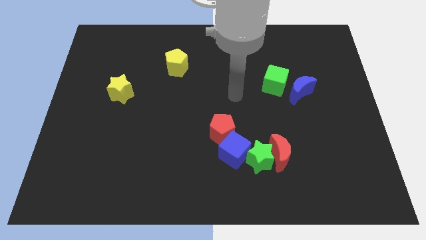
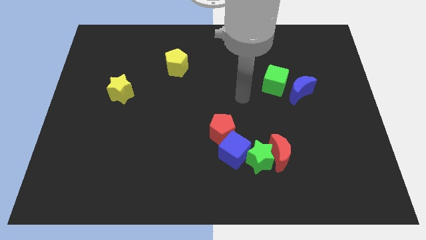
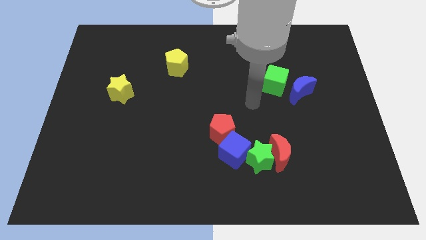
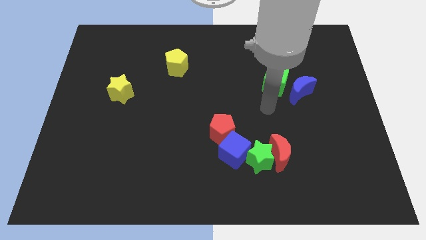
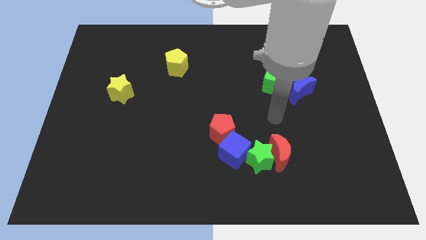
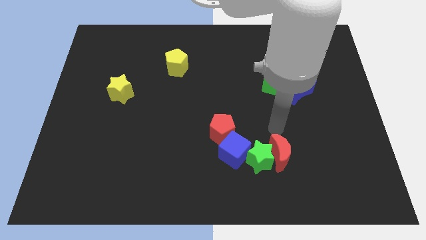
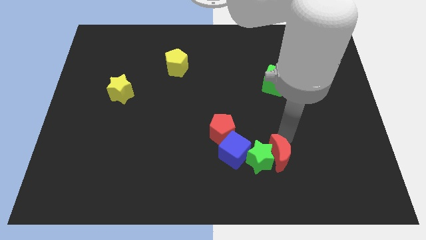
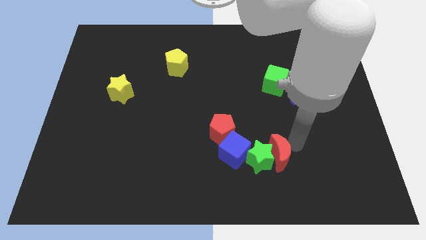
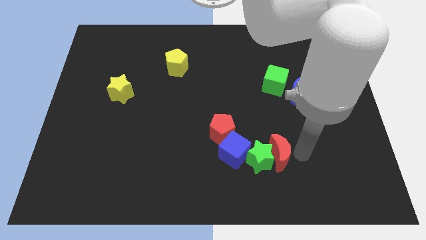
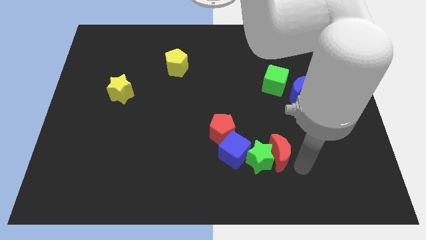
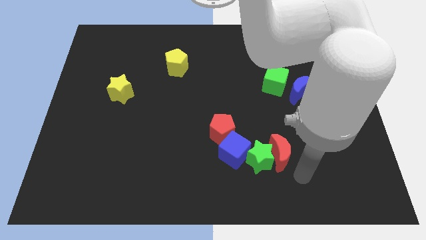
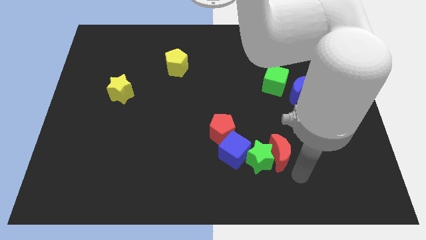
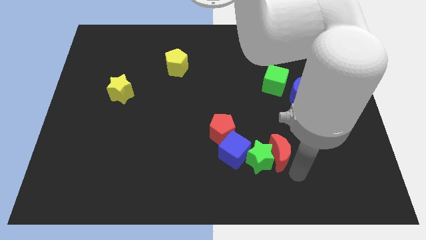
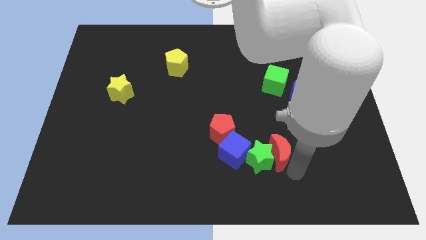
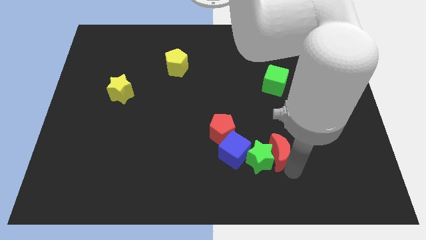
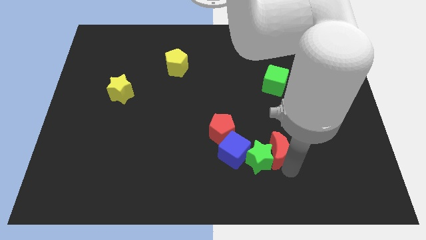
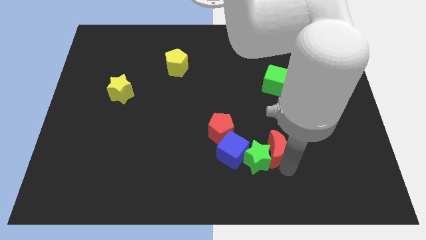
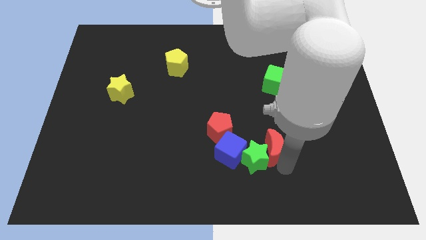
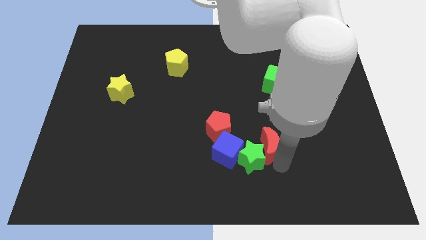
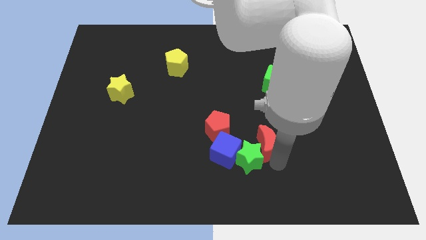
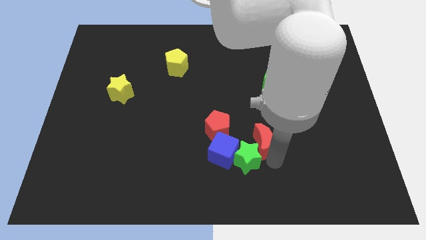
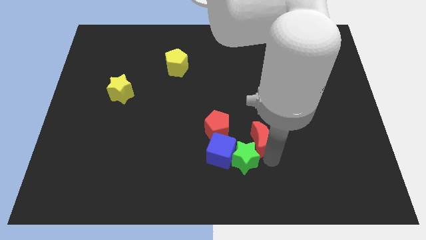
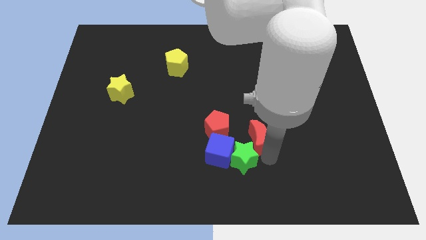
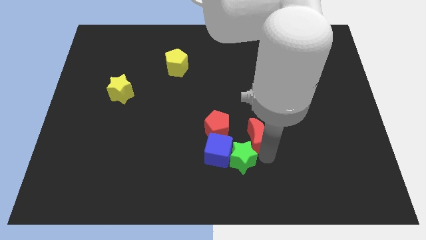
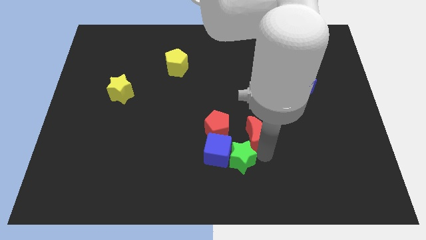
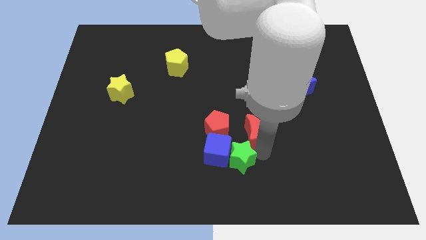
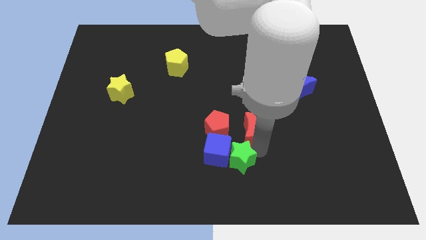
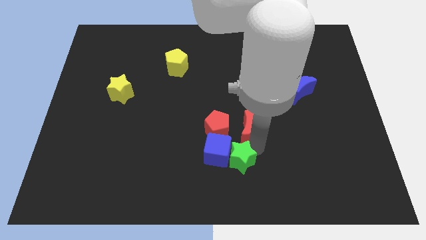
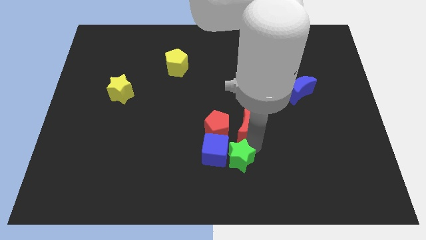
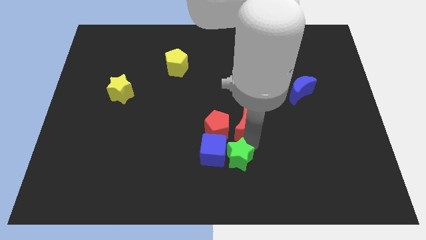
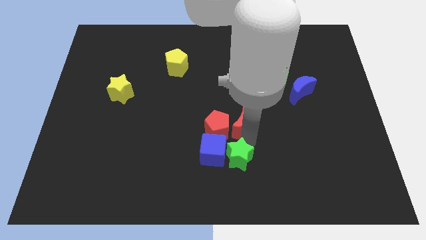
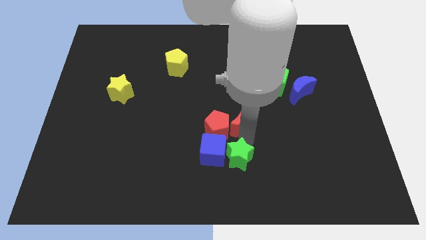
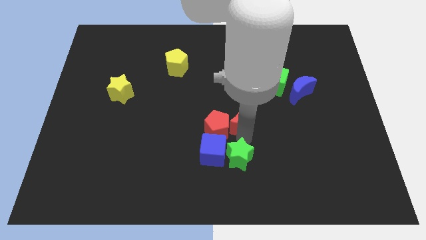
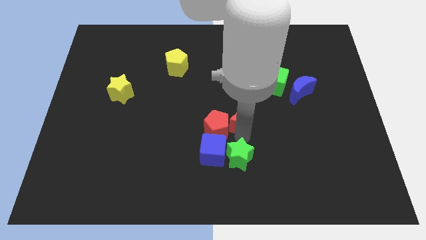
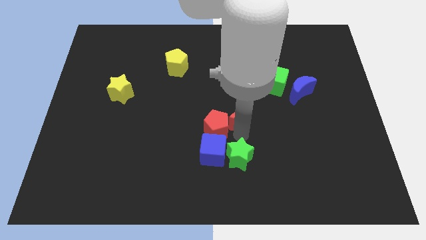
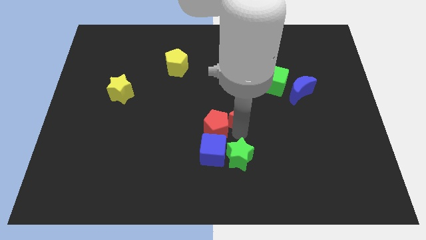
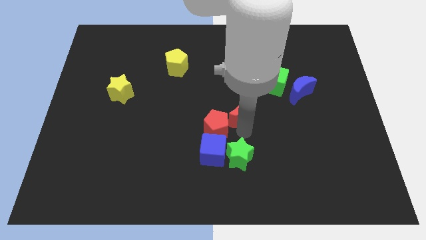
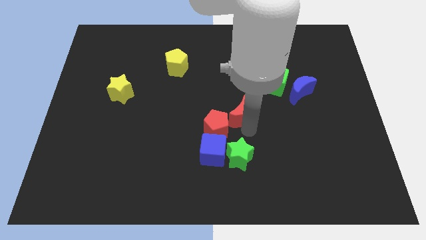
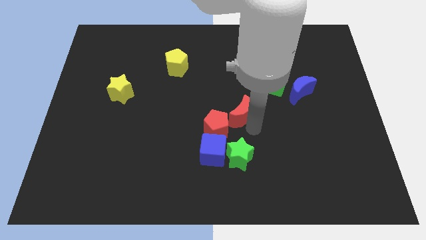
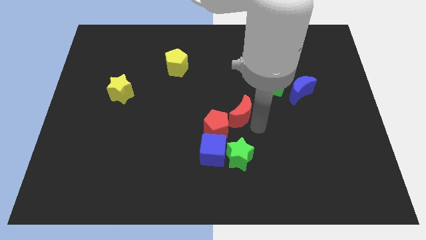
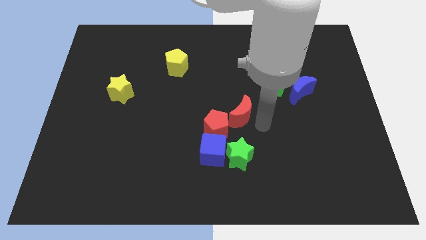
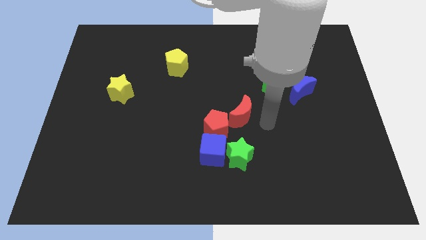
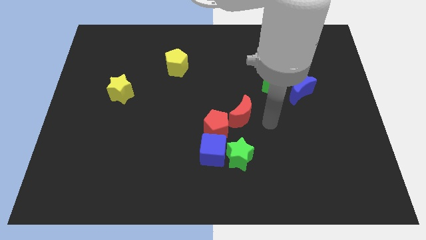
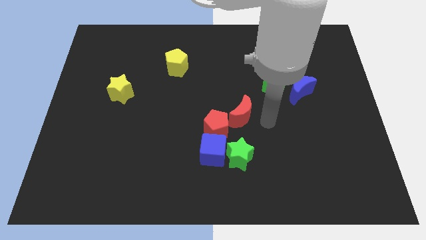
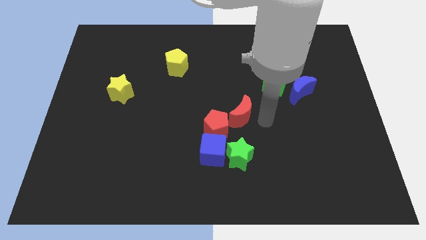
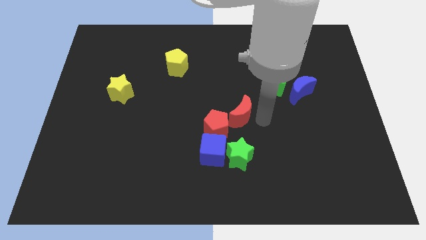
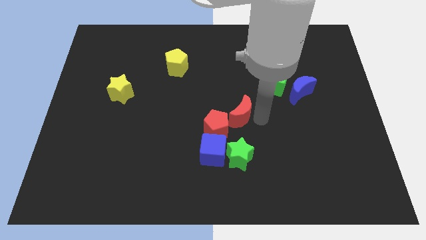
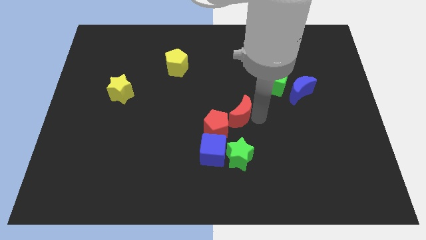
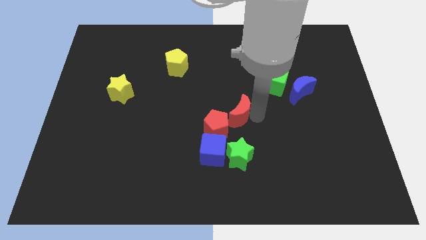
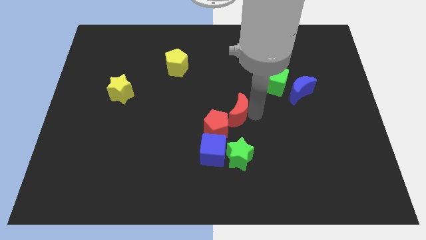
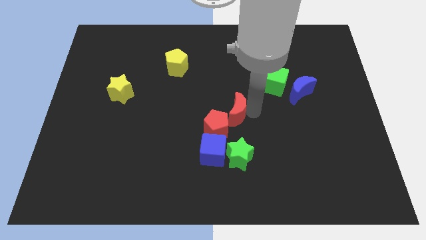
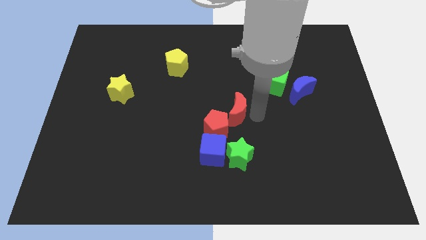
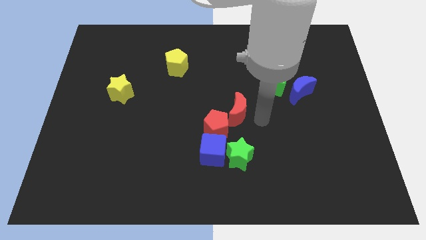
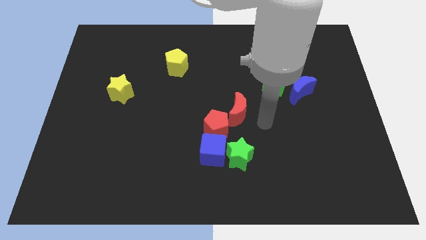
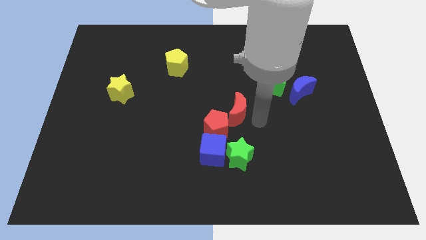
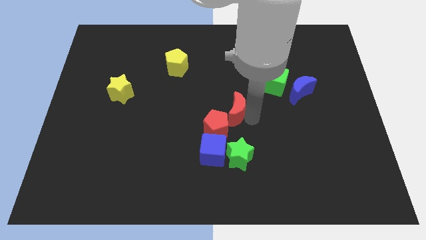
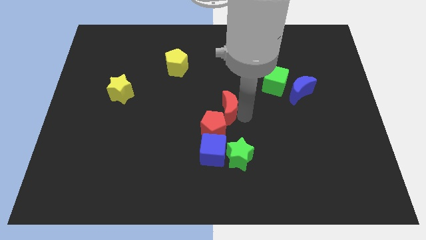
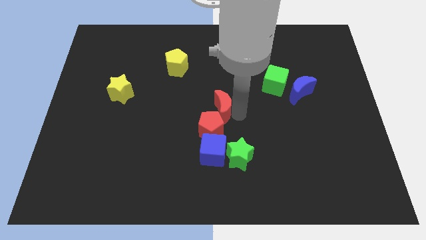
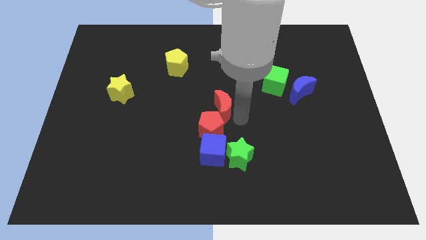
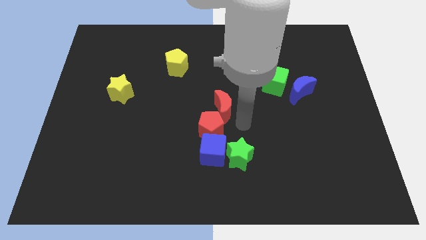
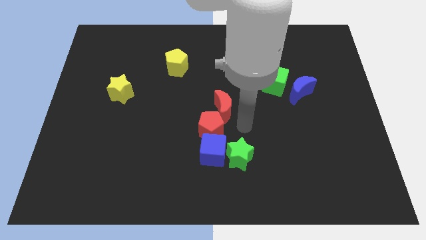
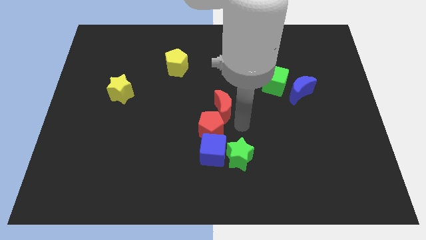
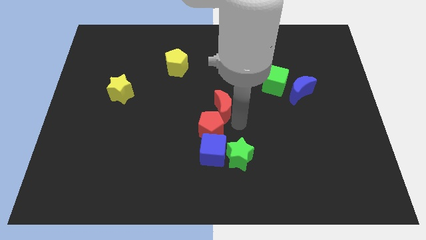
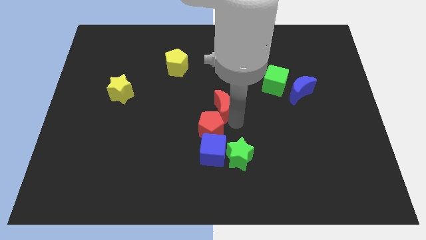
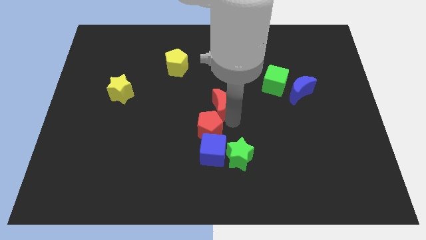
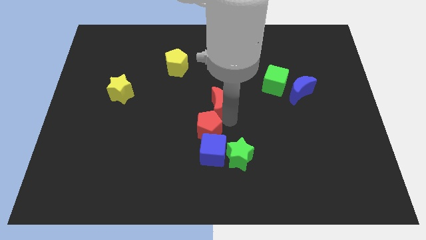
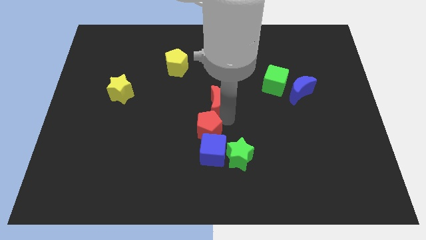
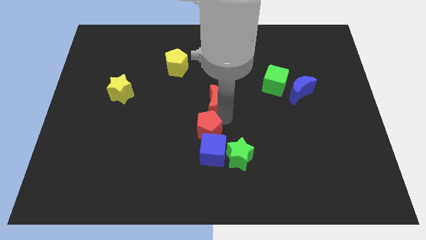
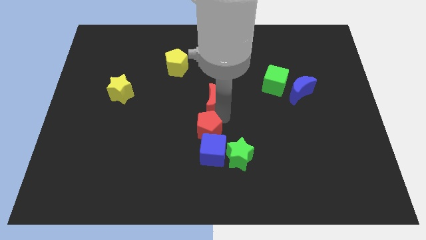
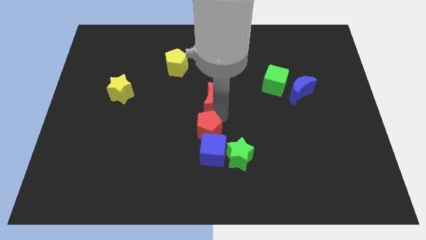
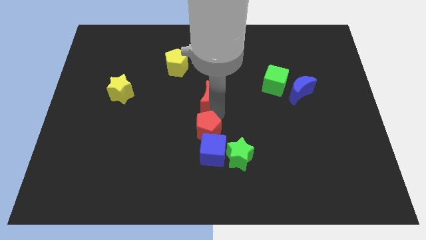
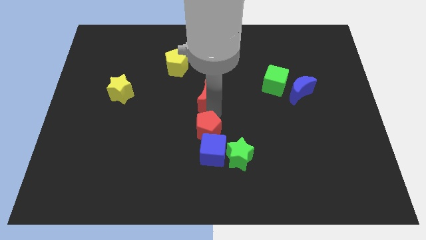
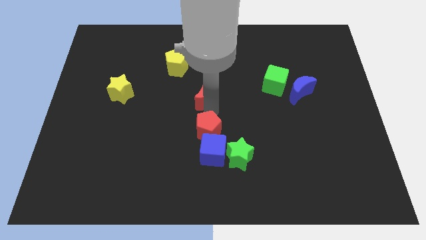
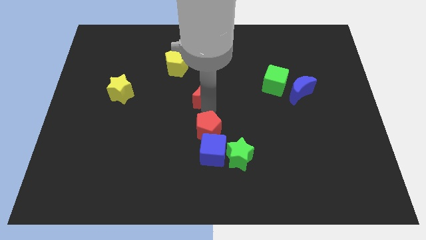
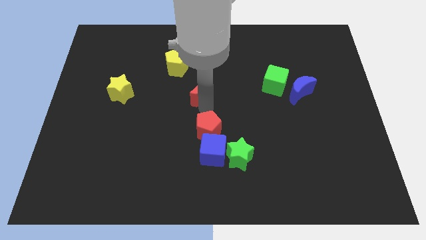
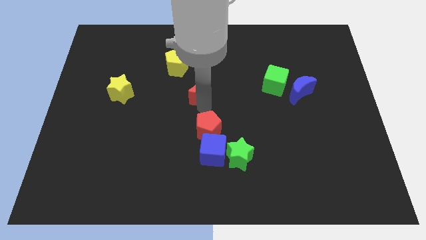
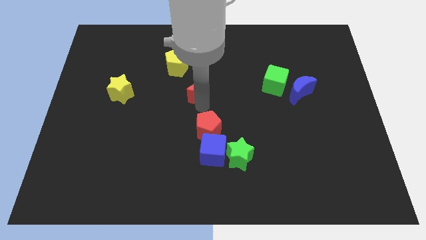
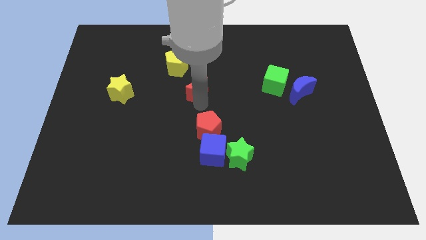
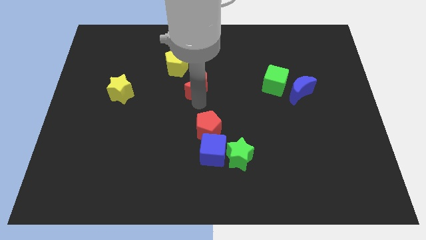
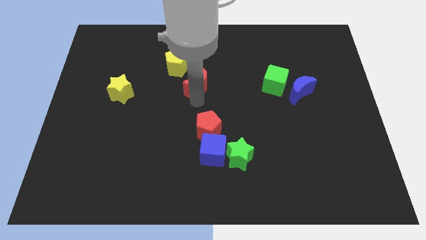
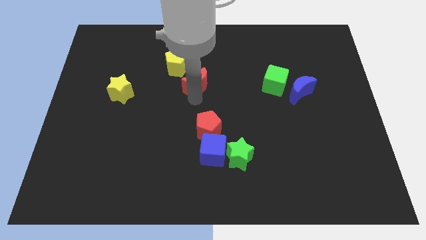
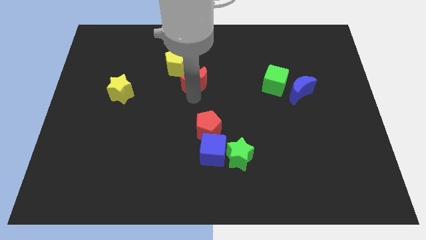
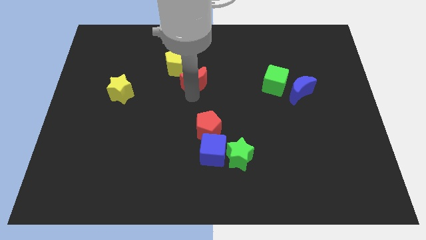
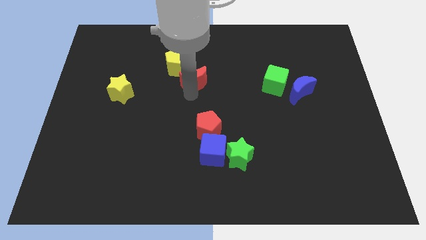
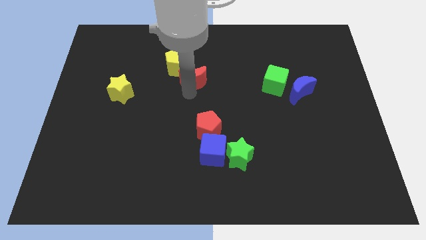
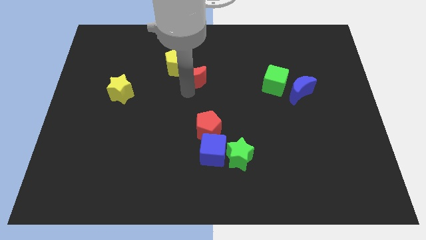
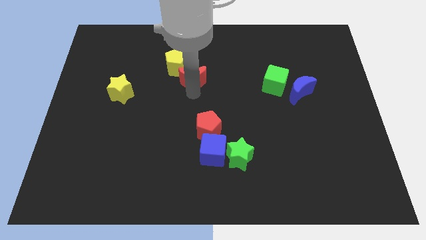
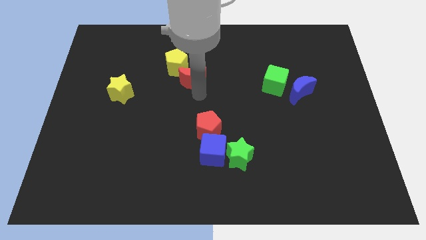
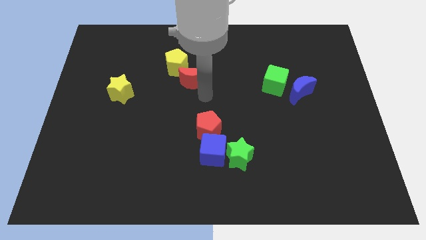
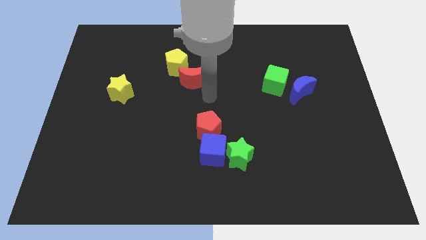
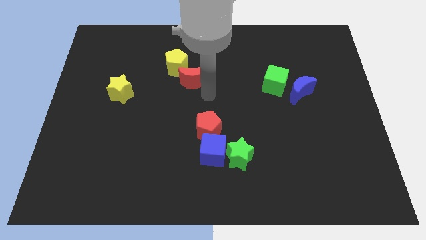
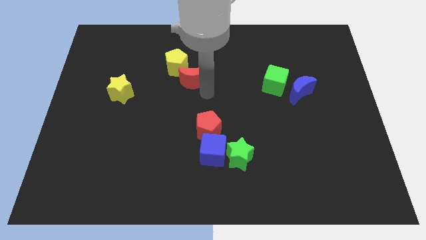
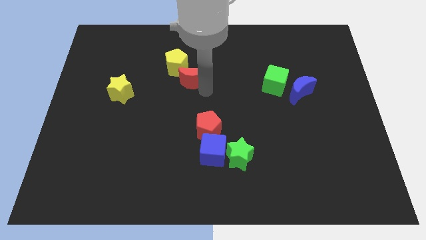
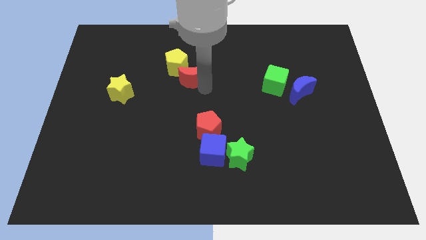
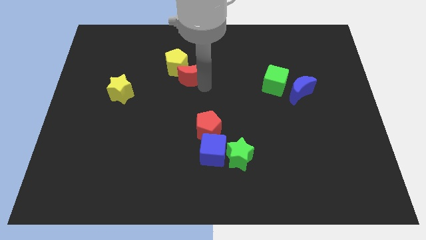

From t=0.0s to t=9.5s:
push the red moon close to the yellow pentagon
